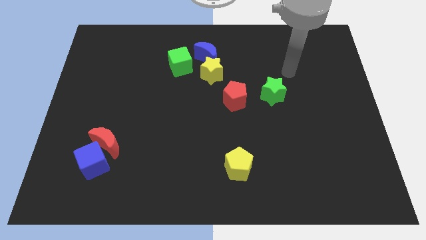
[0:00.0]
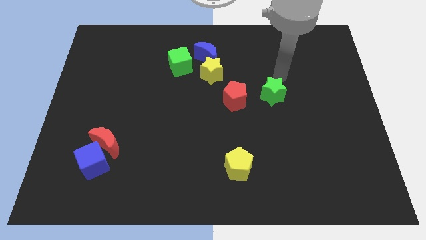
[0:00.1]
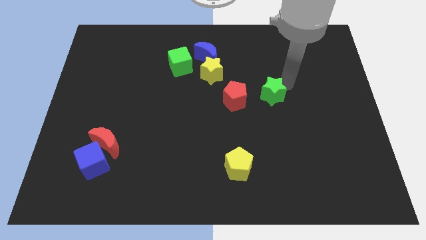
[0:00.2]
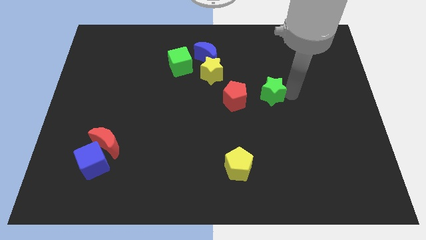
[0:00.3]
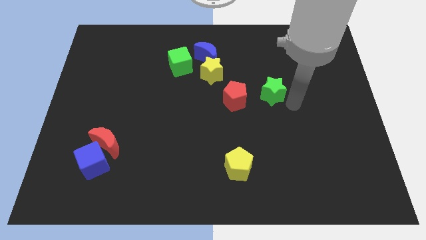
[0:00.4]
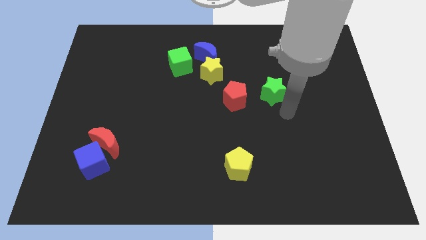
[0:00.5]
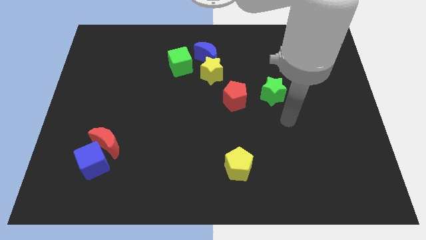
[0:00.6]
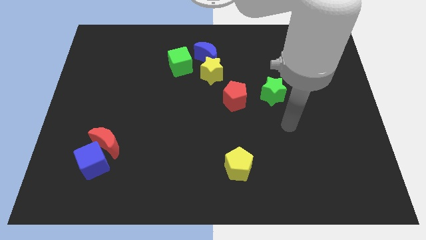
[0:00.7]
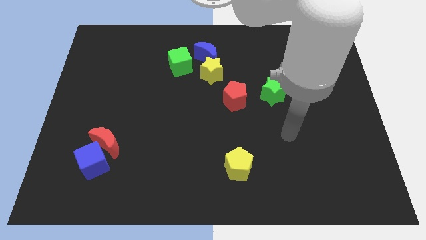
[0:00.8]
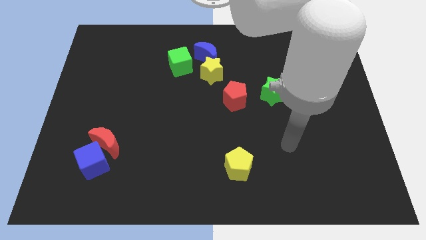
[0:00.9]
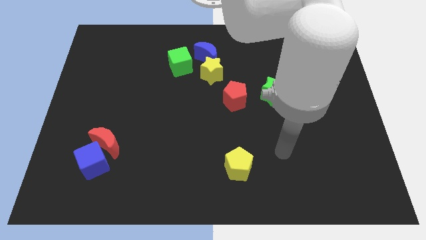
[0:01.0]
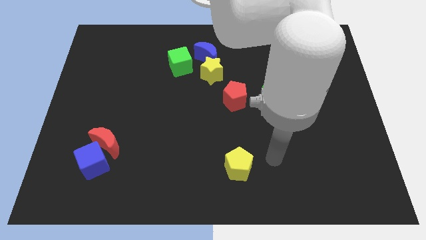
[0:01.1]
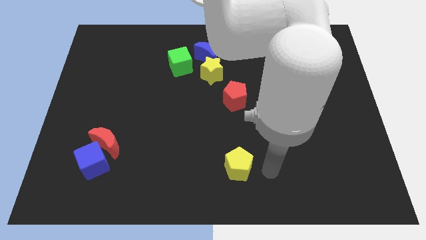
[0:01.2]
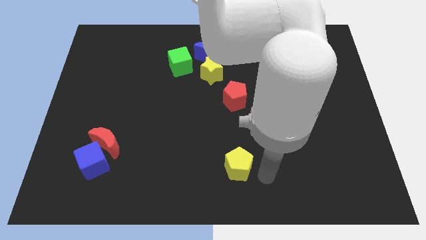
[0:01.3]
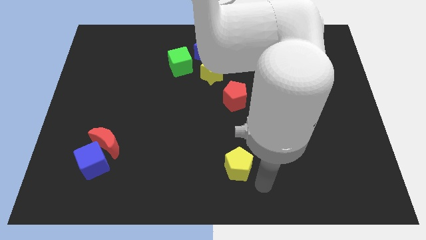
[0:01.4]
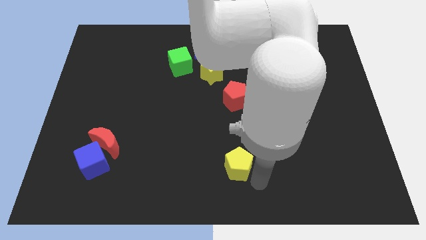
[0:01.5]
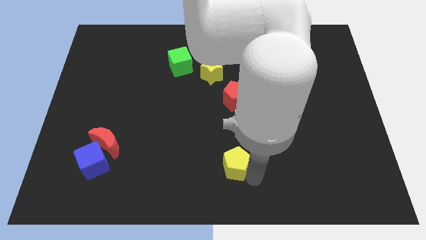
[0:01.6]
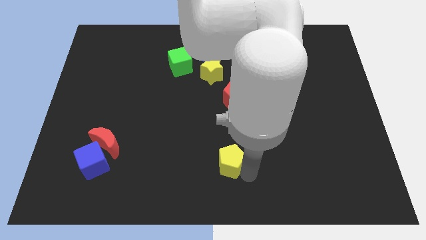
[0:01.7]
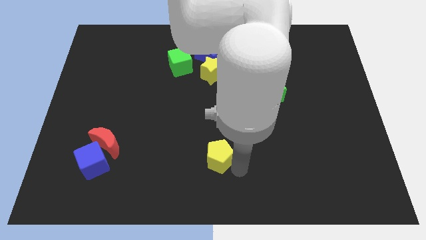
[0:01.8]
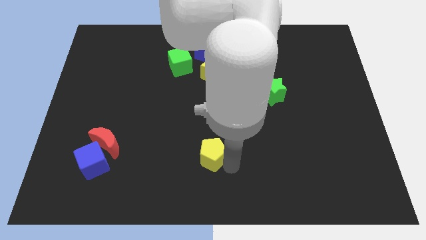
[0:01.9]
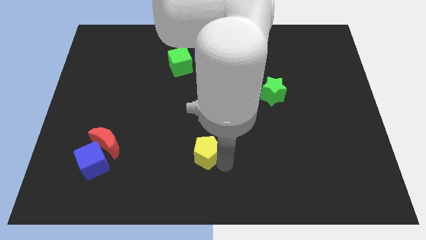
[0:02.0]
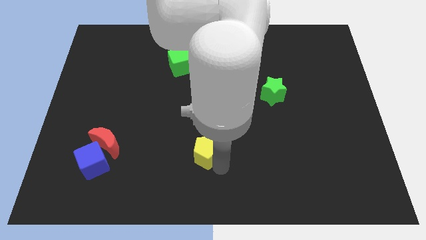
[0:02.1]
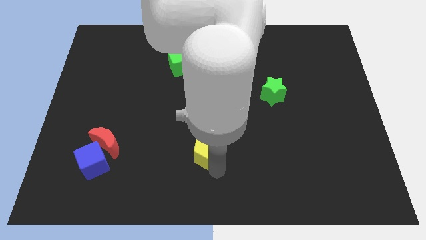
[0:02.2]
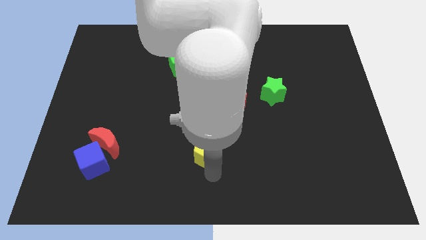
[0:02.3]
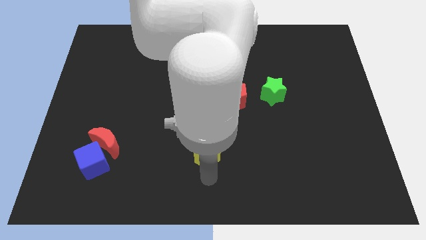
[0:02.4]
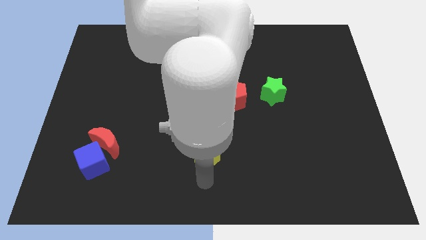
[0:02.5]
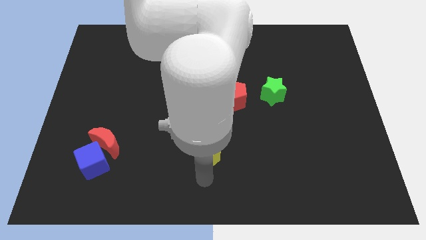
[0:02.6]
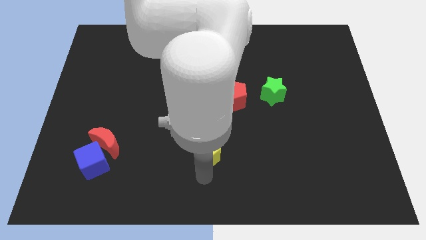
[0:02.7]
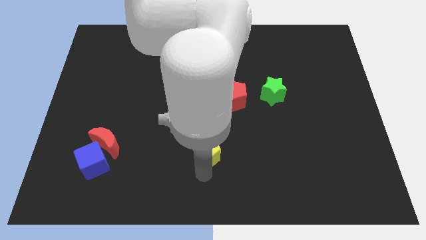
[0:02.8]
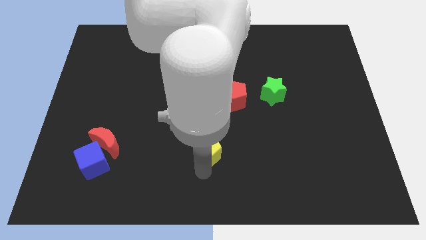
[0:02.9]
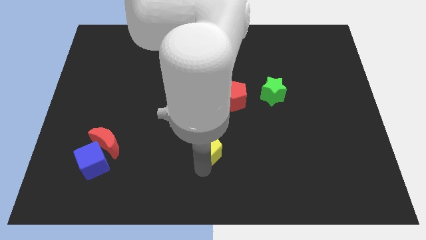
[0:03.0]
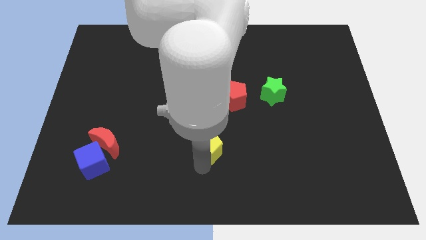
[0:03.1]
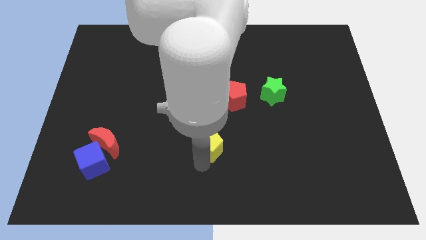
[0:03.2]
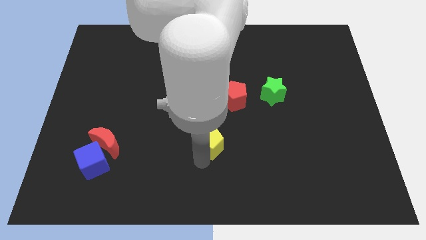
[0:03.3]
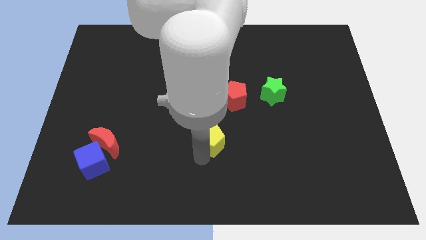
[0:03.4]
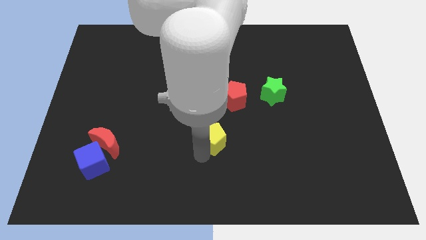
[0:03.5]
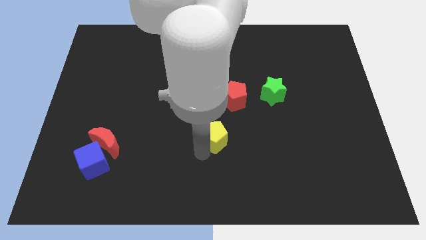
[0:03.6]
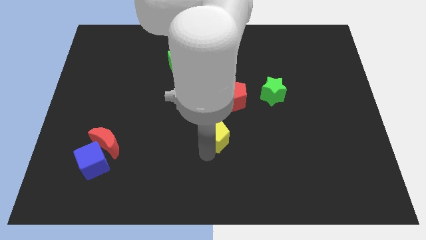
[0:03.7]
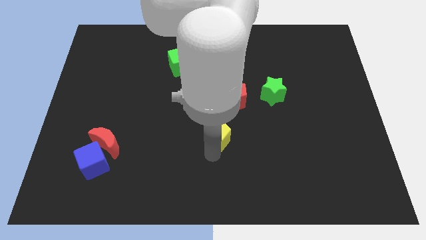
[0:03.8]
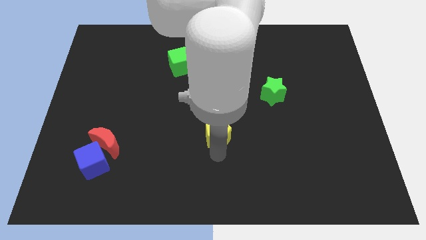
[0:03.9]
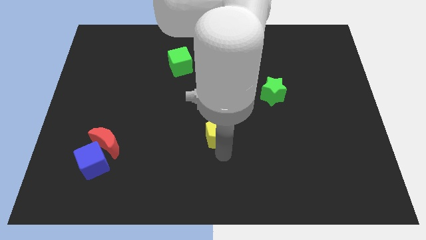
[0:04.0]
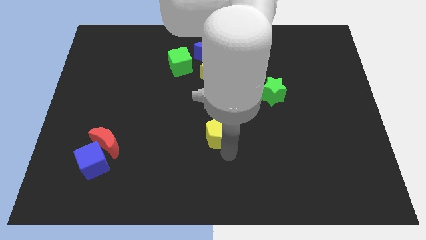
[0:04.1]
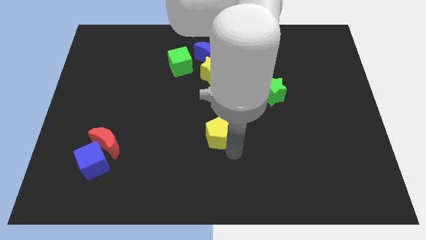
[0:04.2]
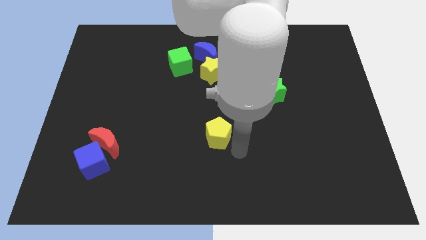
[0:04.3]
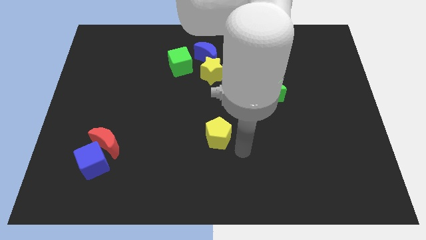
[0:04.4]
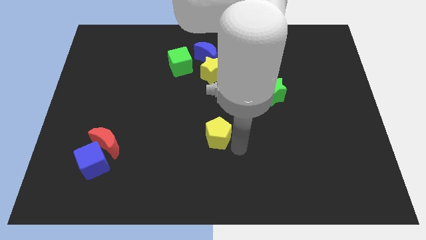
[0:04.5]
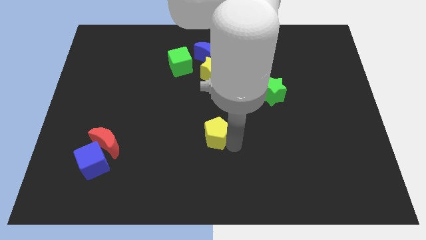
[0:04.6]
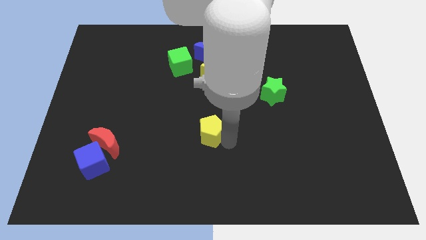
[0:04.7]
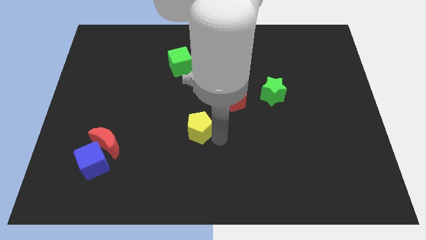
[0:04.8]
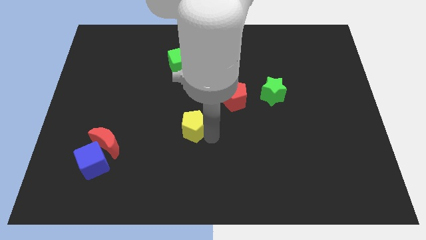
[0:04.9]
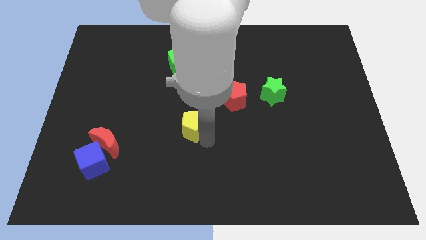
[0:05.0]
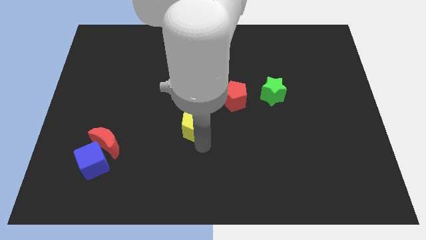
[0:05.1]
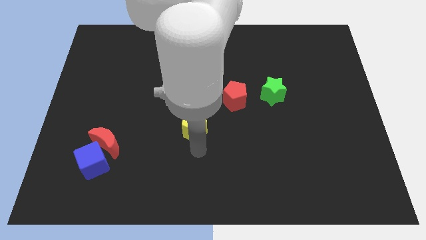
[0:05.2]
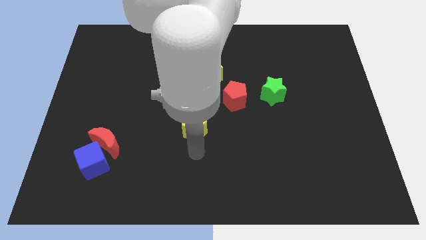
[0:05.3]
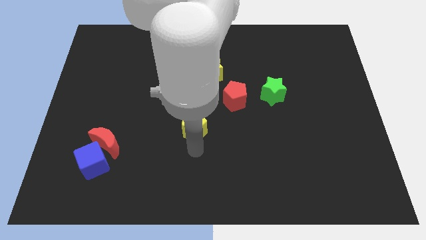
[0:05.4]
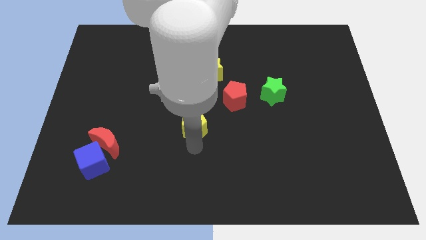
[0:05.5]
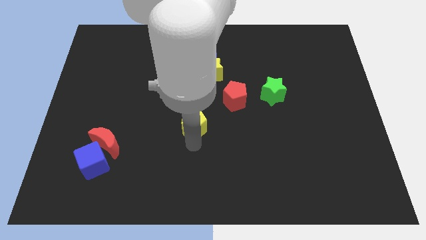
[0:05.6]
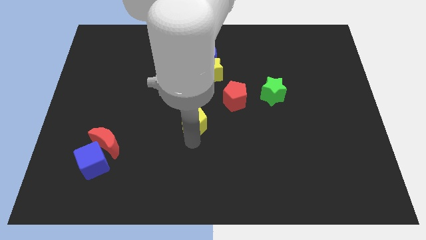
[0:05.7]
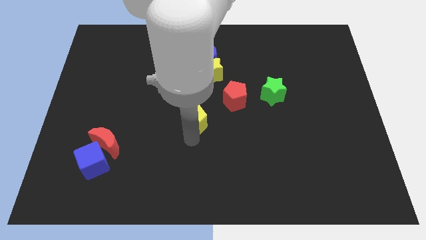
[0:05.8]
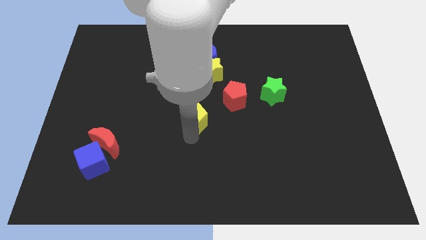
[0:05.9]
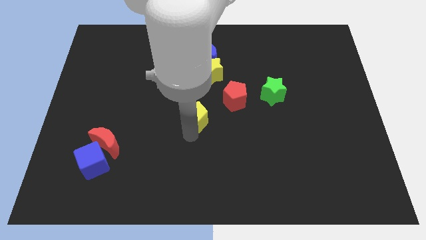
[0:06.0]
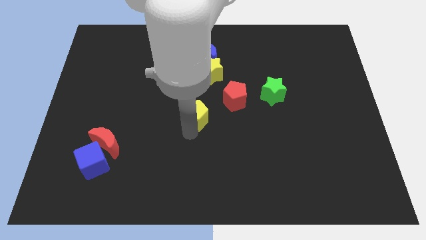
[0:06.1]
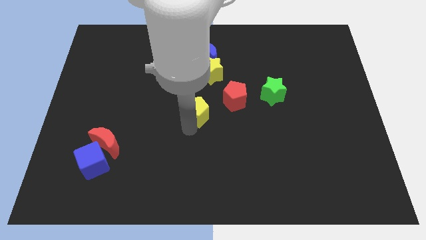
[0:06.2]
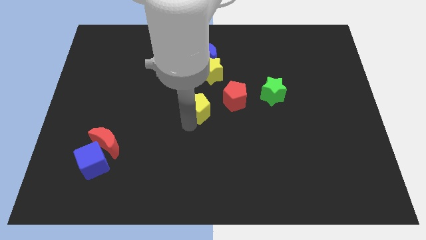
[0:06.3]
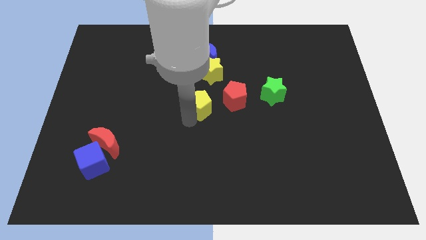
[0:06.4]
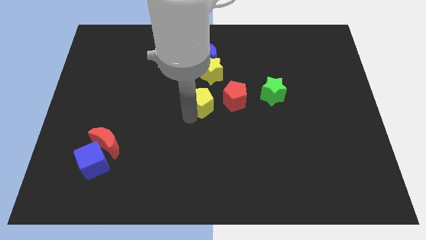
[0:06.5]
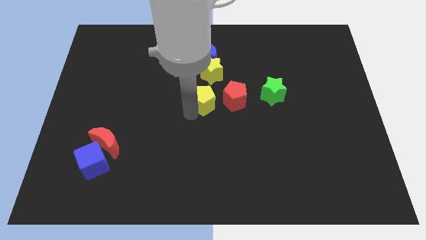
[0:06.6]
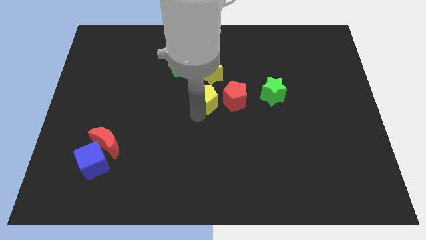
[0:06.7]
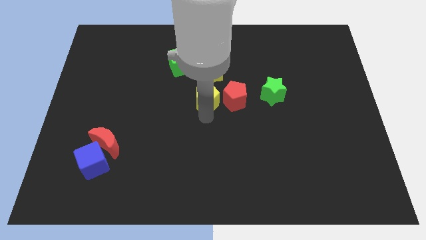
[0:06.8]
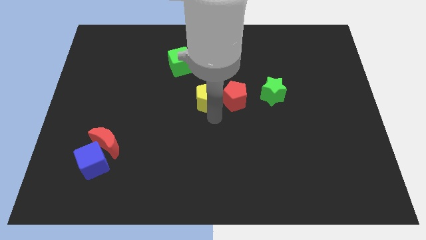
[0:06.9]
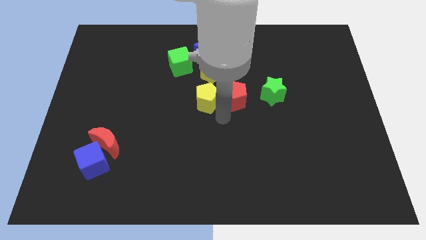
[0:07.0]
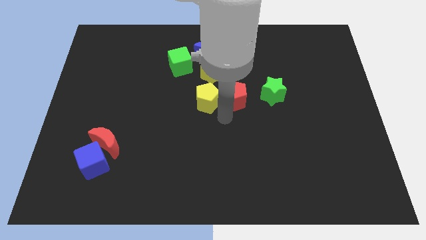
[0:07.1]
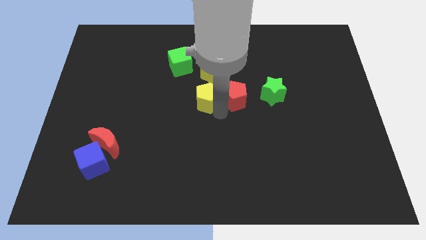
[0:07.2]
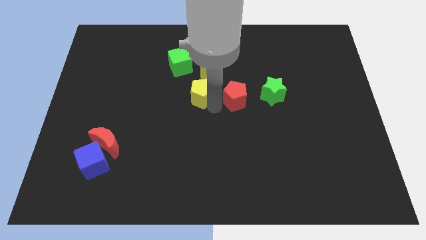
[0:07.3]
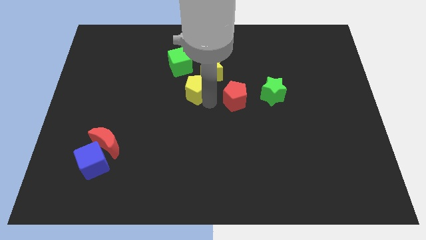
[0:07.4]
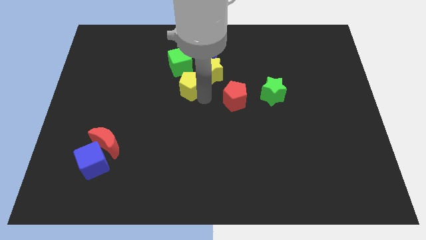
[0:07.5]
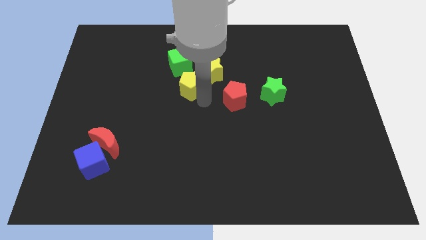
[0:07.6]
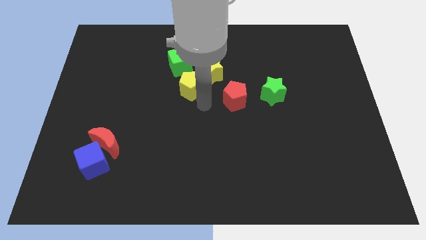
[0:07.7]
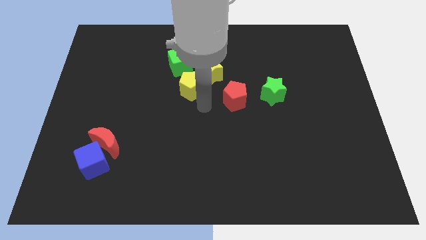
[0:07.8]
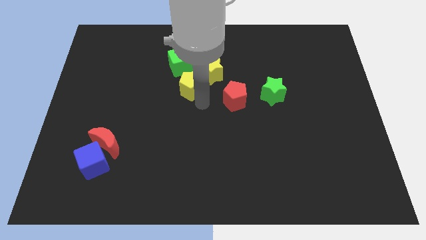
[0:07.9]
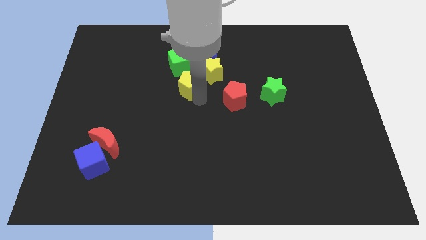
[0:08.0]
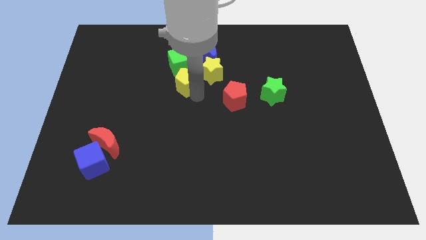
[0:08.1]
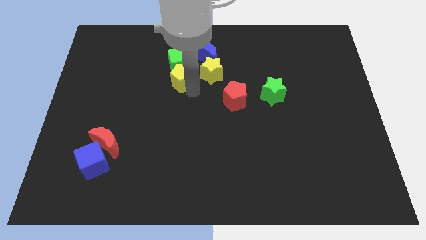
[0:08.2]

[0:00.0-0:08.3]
move the yellow pentagon next to the green cube
